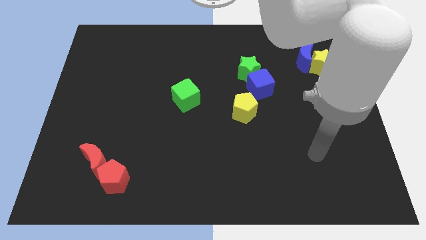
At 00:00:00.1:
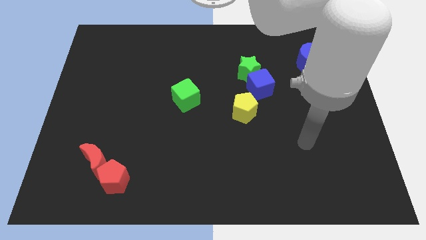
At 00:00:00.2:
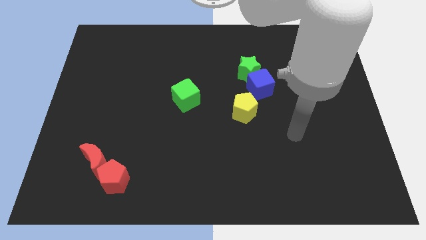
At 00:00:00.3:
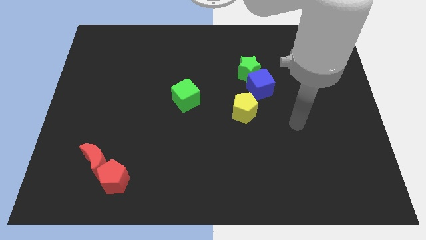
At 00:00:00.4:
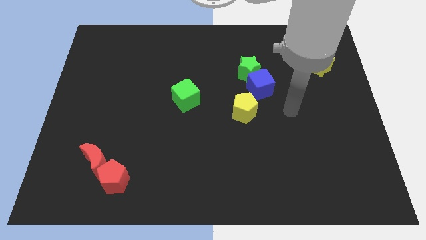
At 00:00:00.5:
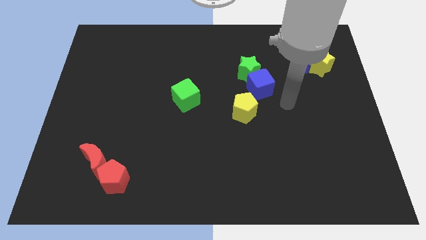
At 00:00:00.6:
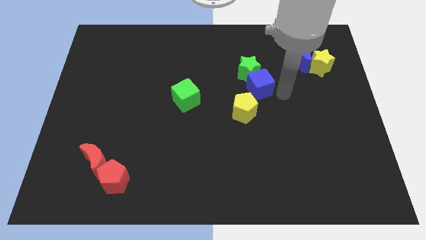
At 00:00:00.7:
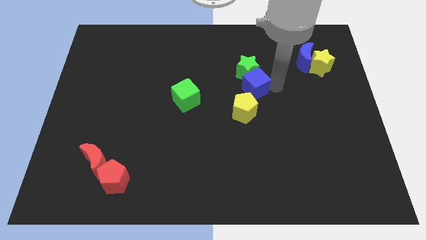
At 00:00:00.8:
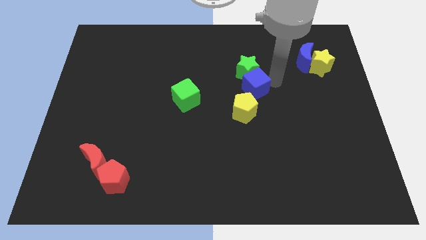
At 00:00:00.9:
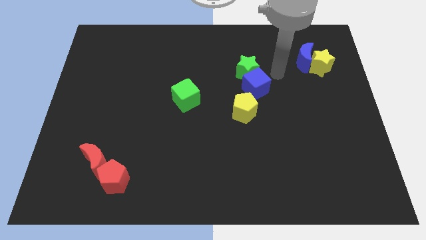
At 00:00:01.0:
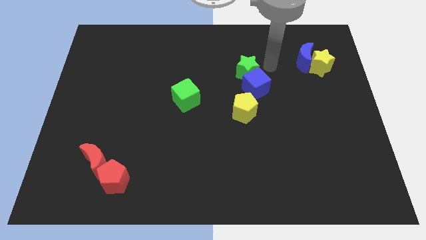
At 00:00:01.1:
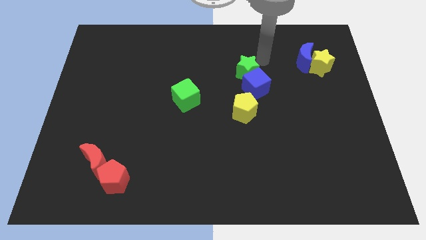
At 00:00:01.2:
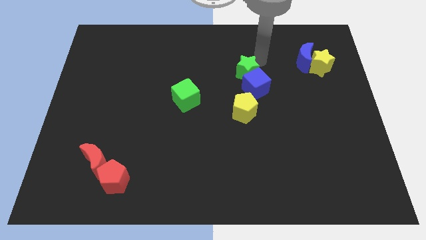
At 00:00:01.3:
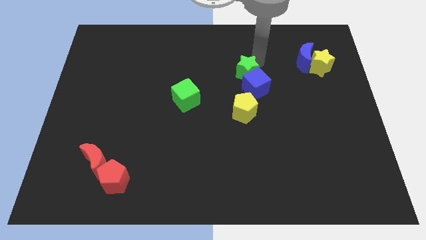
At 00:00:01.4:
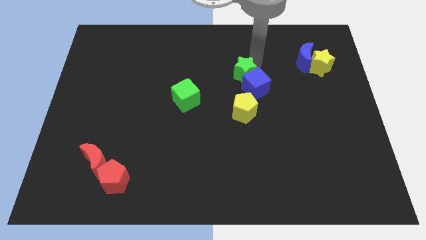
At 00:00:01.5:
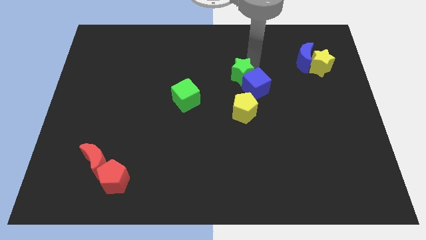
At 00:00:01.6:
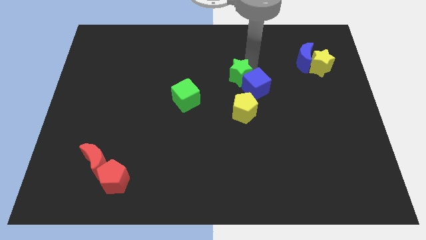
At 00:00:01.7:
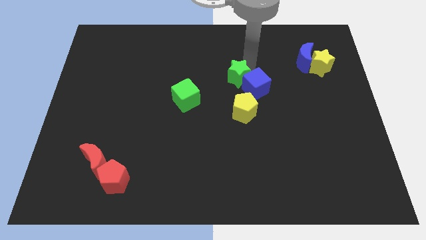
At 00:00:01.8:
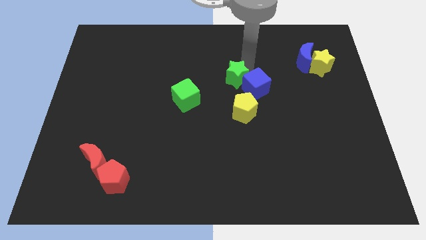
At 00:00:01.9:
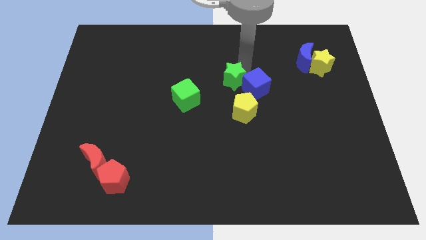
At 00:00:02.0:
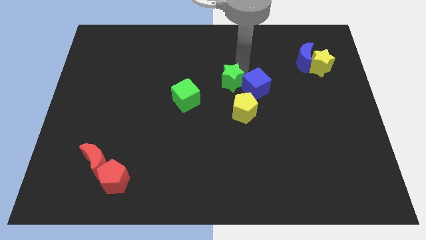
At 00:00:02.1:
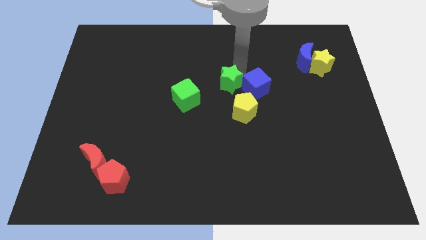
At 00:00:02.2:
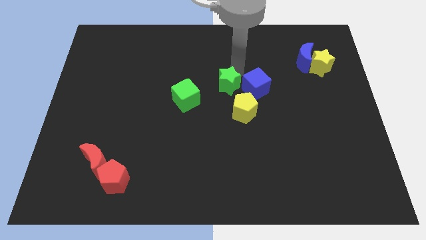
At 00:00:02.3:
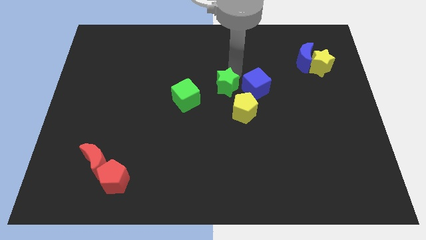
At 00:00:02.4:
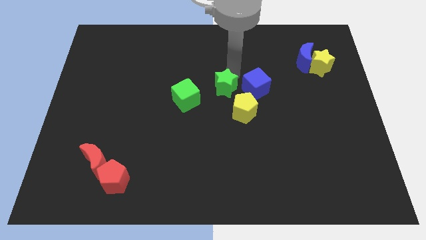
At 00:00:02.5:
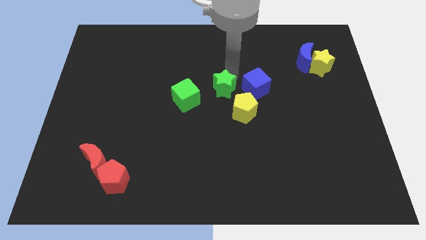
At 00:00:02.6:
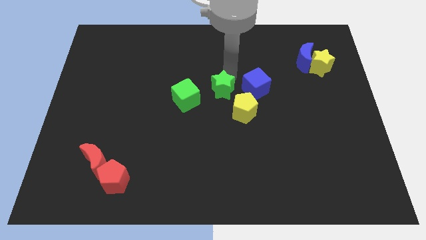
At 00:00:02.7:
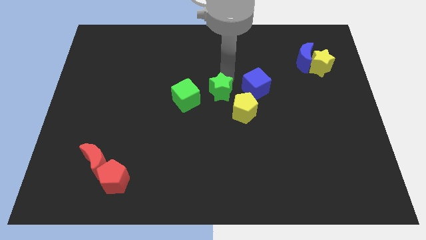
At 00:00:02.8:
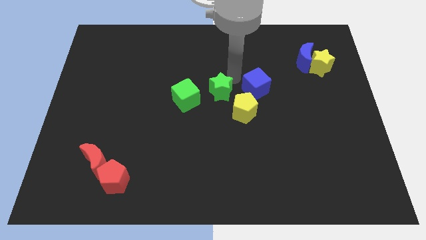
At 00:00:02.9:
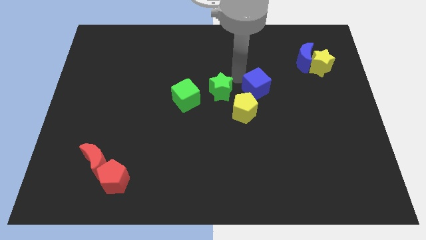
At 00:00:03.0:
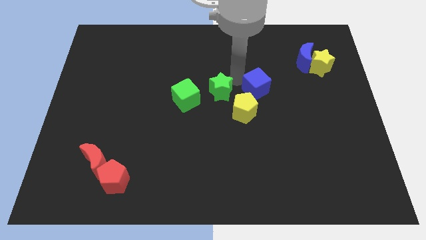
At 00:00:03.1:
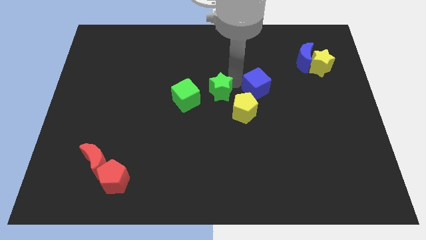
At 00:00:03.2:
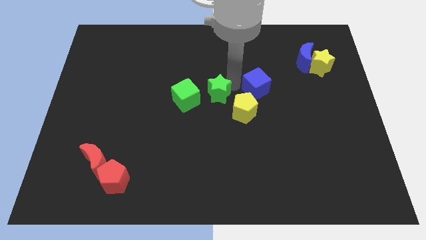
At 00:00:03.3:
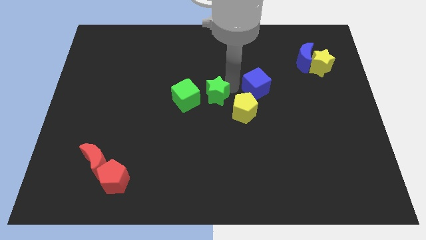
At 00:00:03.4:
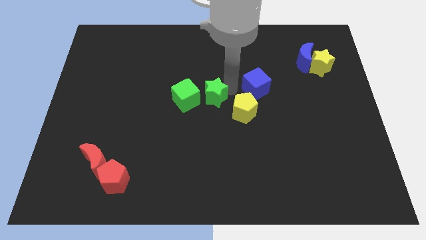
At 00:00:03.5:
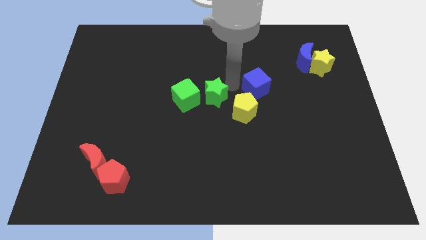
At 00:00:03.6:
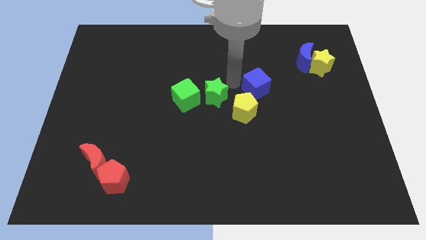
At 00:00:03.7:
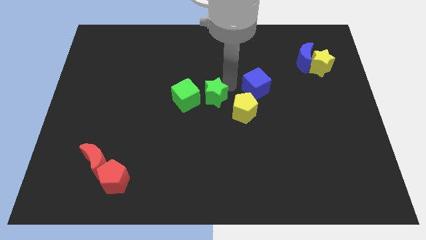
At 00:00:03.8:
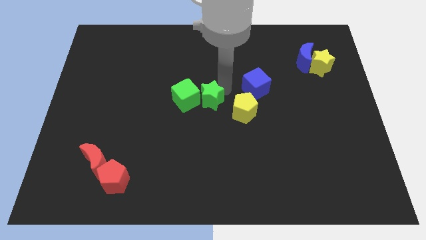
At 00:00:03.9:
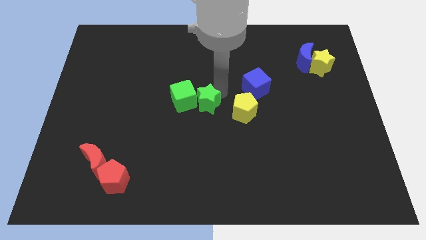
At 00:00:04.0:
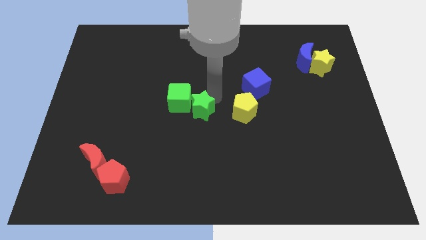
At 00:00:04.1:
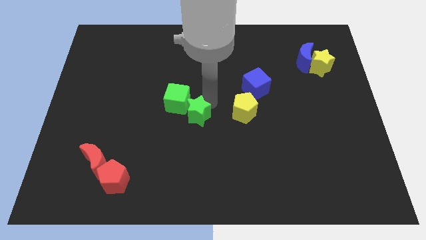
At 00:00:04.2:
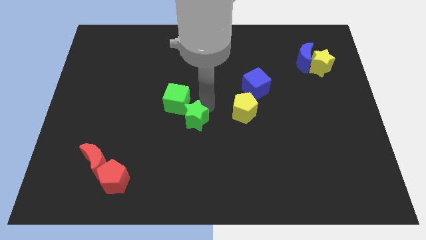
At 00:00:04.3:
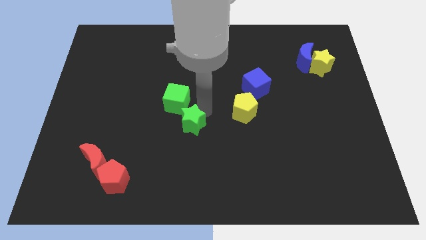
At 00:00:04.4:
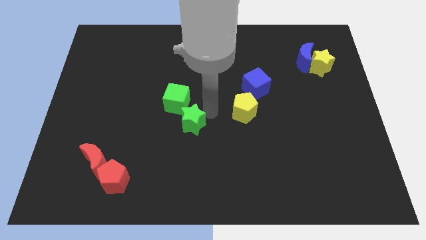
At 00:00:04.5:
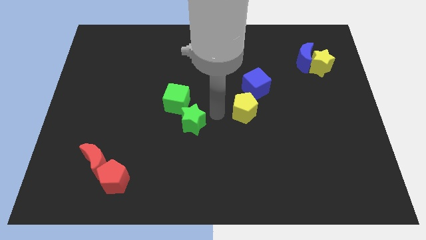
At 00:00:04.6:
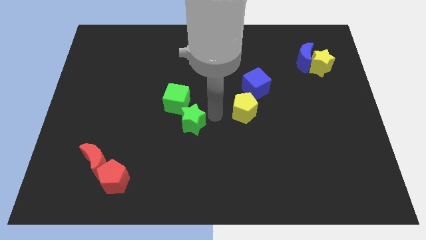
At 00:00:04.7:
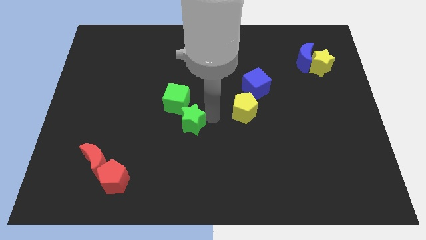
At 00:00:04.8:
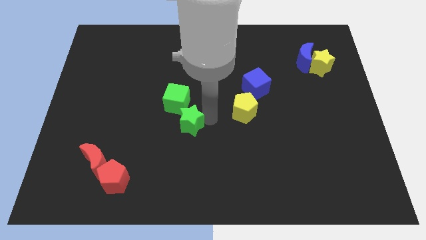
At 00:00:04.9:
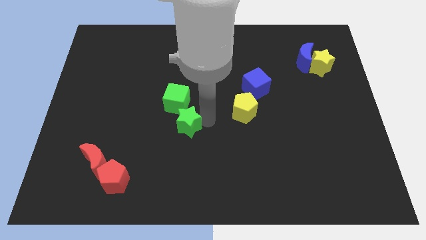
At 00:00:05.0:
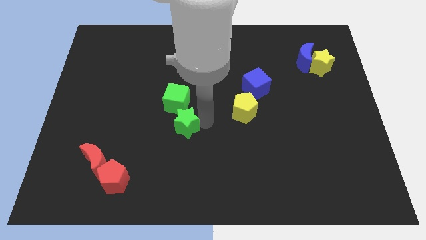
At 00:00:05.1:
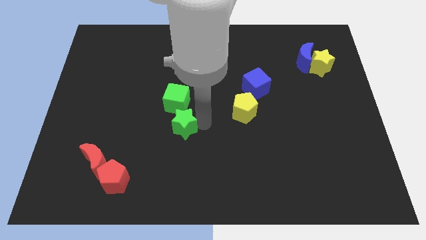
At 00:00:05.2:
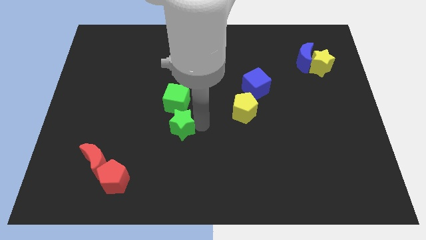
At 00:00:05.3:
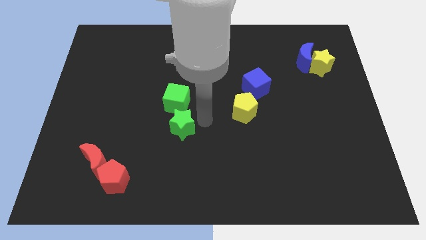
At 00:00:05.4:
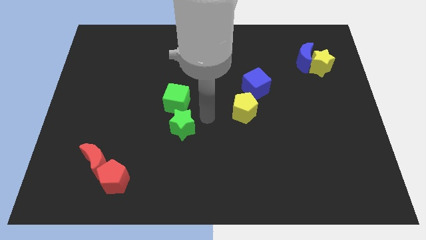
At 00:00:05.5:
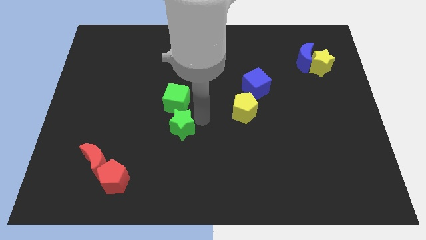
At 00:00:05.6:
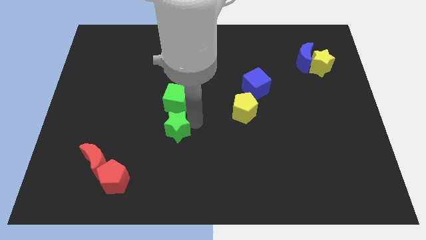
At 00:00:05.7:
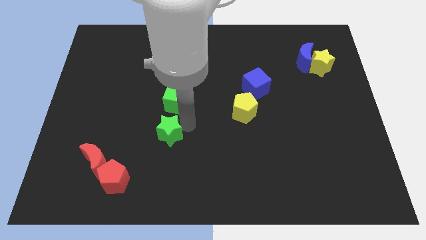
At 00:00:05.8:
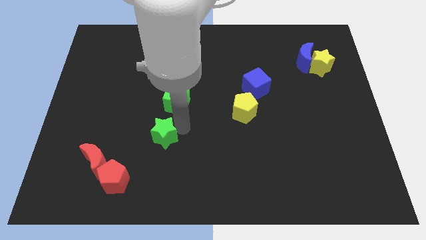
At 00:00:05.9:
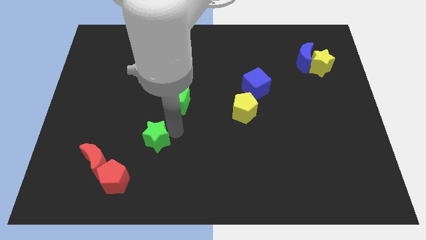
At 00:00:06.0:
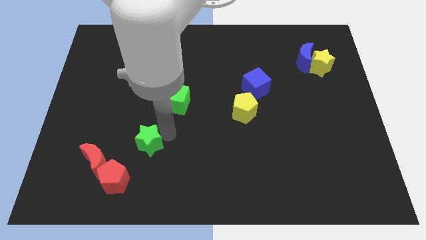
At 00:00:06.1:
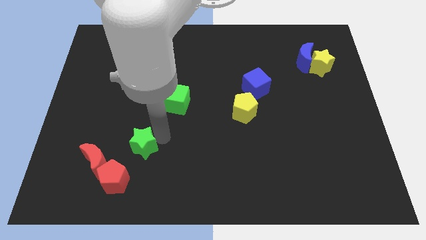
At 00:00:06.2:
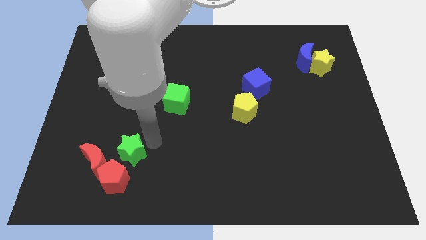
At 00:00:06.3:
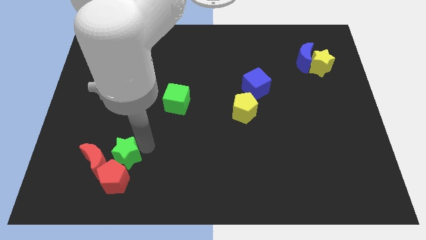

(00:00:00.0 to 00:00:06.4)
slide the green star close to the red moon

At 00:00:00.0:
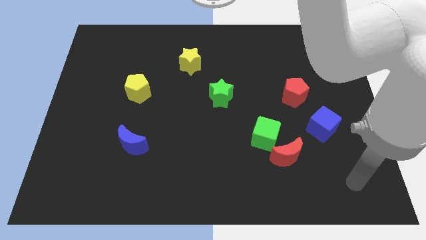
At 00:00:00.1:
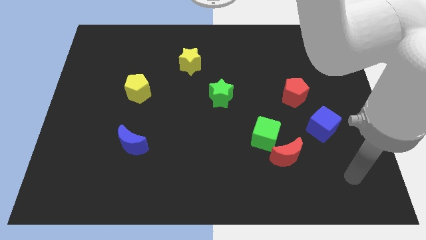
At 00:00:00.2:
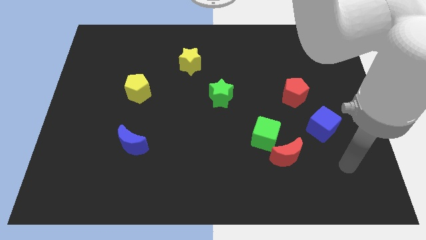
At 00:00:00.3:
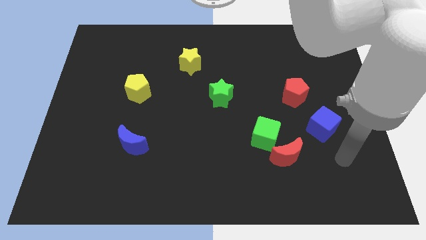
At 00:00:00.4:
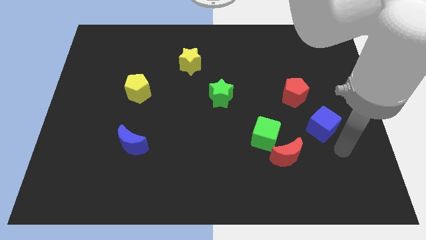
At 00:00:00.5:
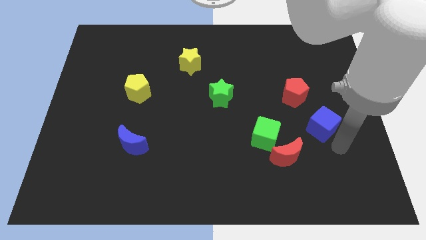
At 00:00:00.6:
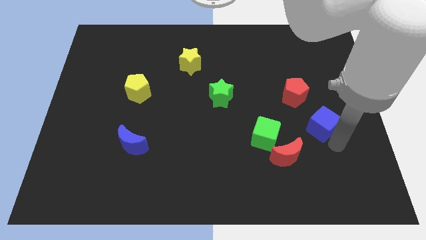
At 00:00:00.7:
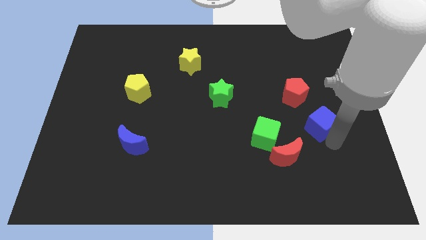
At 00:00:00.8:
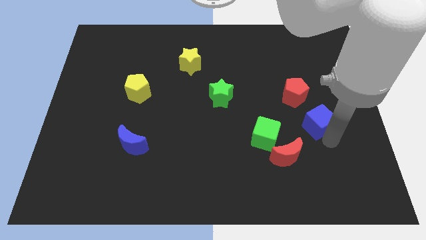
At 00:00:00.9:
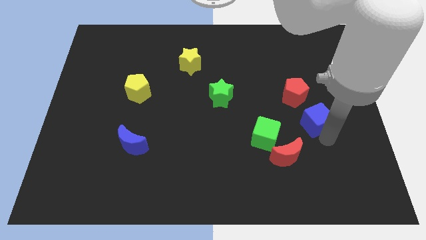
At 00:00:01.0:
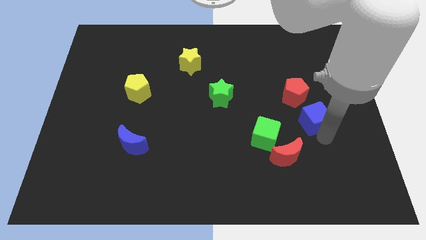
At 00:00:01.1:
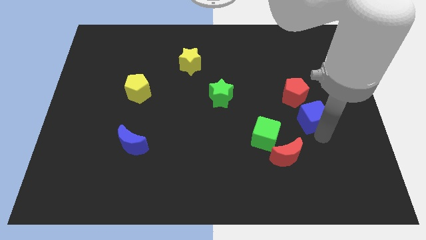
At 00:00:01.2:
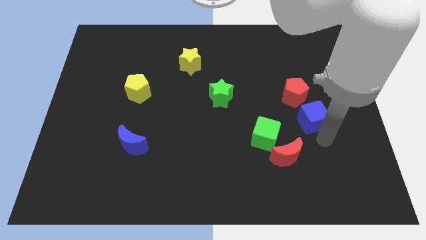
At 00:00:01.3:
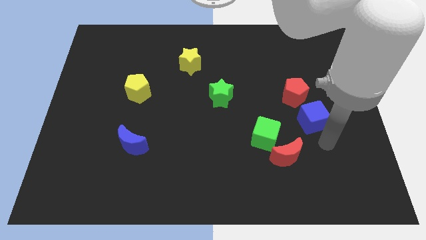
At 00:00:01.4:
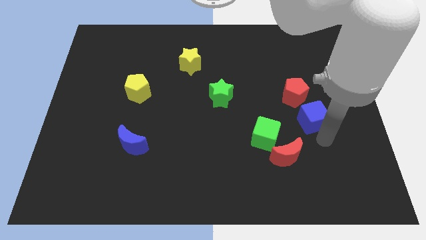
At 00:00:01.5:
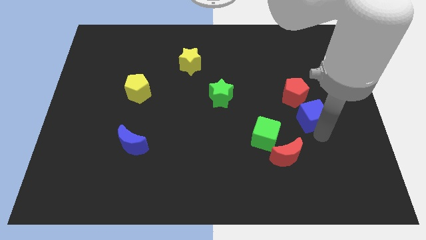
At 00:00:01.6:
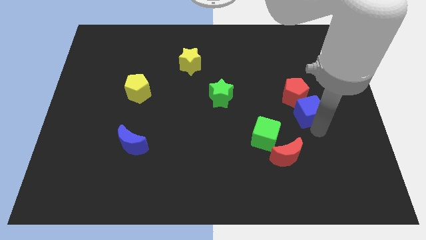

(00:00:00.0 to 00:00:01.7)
push the blue cube close to the red pentagon
